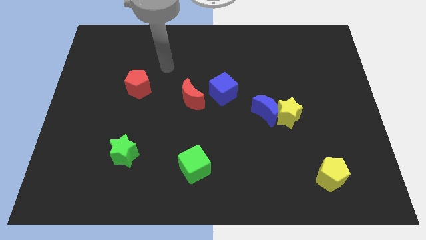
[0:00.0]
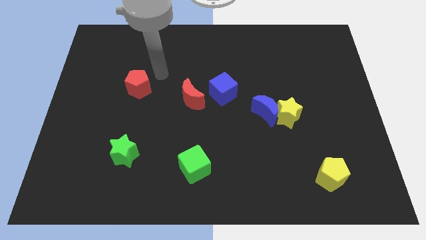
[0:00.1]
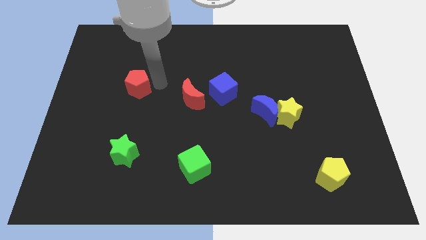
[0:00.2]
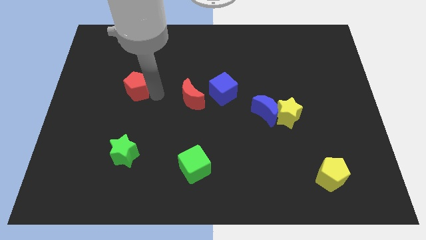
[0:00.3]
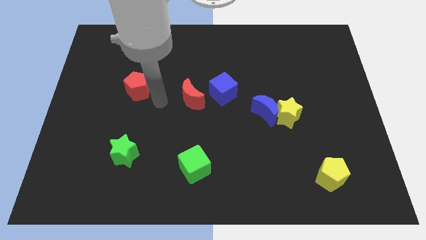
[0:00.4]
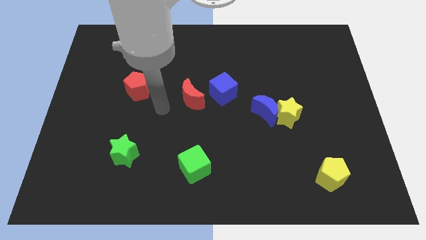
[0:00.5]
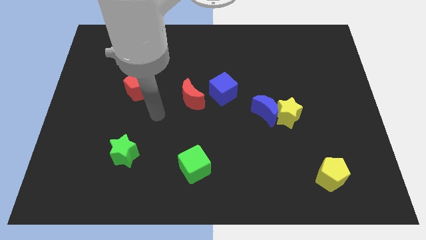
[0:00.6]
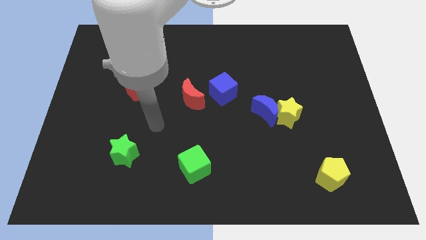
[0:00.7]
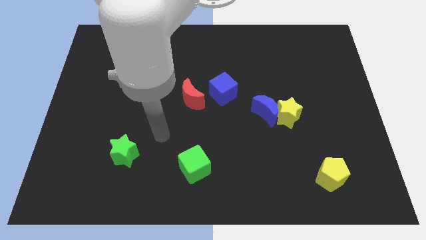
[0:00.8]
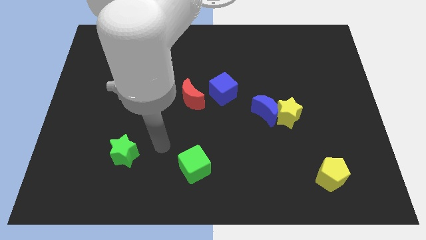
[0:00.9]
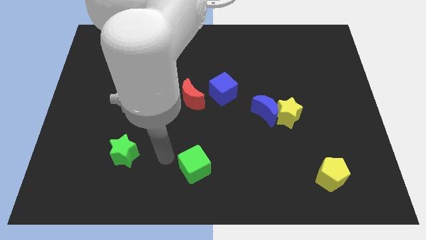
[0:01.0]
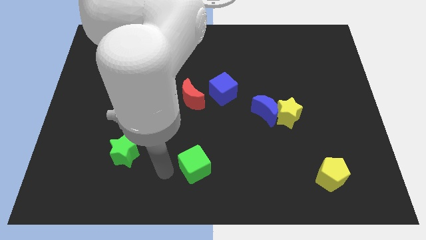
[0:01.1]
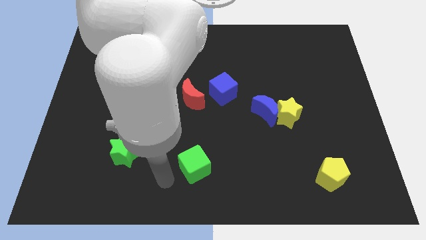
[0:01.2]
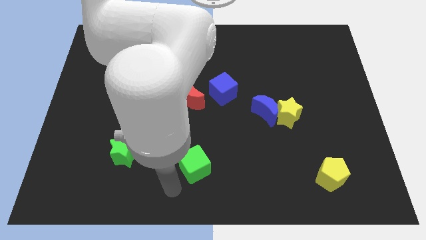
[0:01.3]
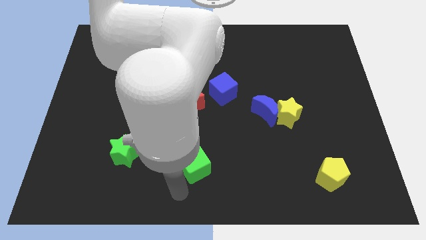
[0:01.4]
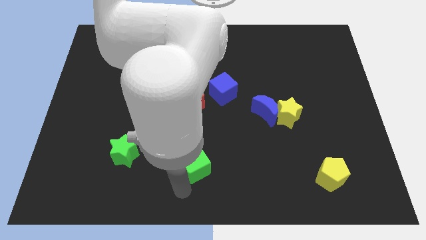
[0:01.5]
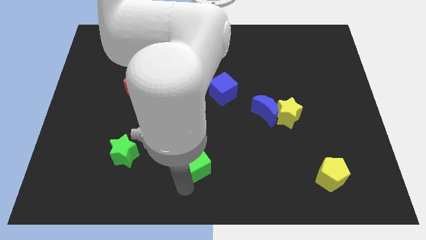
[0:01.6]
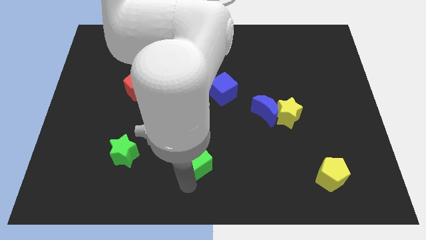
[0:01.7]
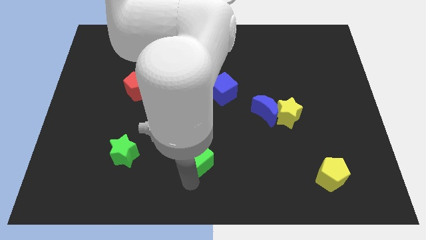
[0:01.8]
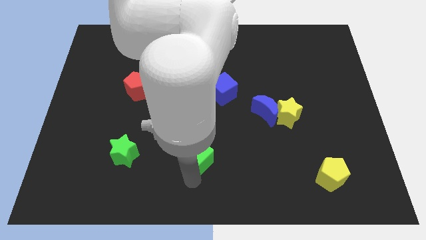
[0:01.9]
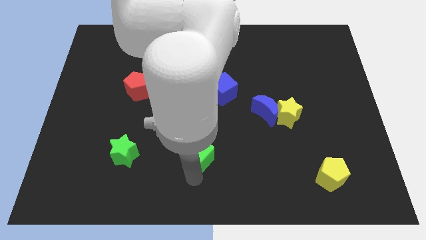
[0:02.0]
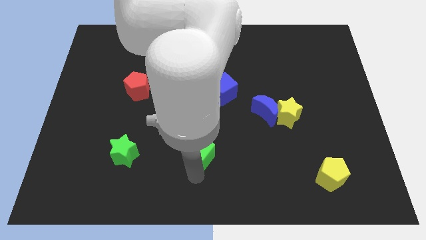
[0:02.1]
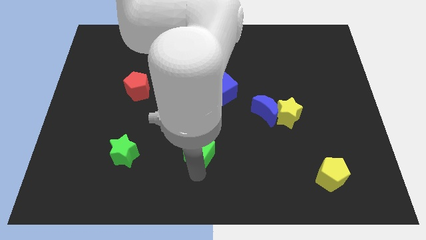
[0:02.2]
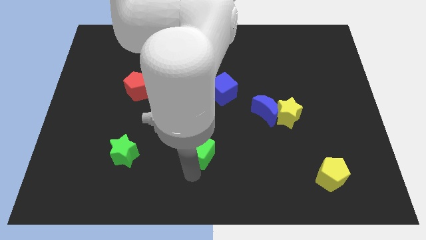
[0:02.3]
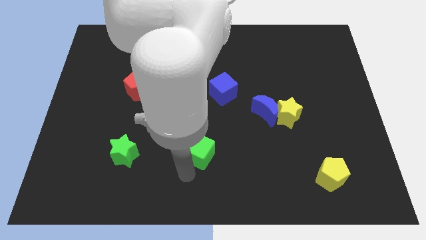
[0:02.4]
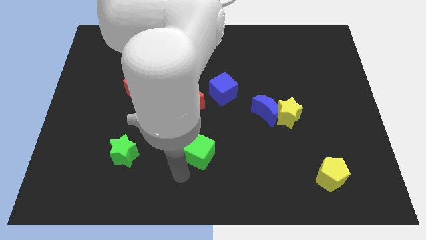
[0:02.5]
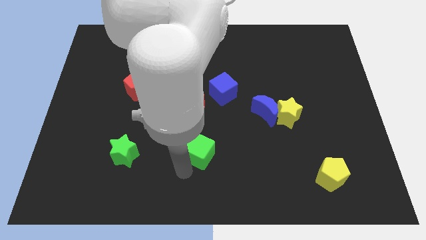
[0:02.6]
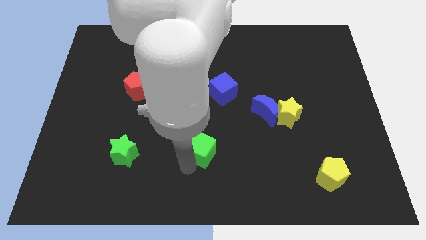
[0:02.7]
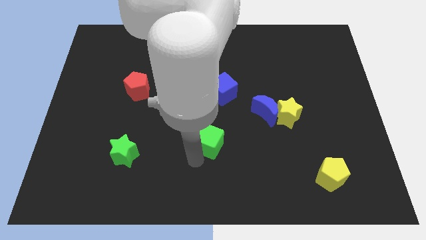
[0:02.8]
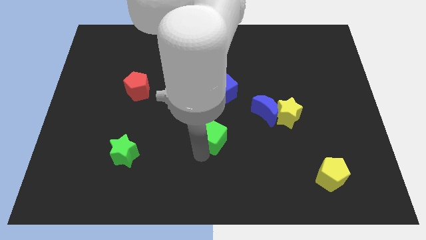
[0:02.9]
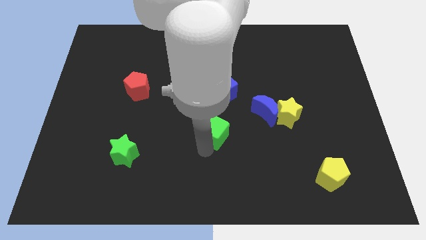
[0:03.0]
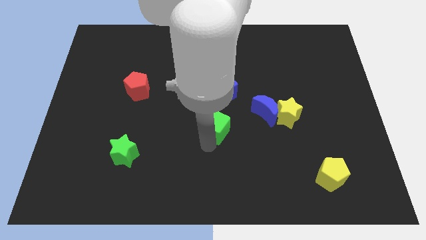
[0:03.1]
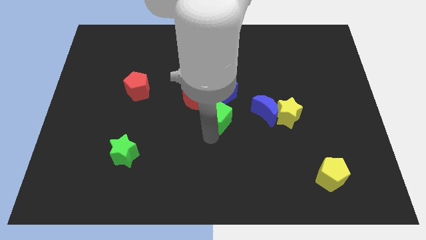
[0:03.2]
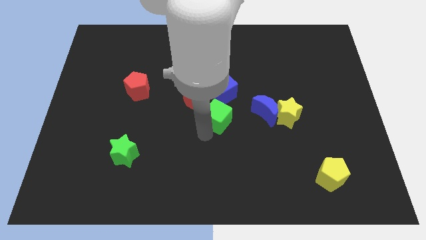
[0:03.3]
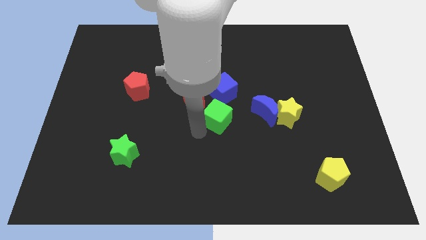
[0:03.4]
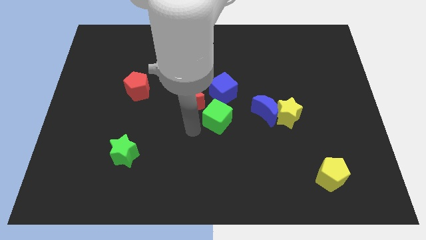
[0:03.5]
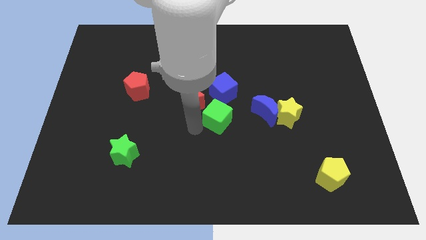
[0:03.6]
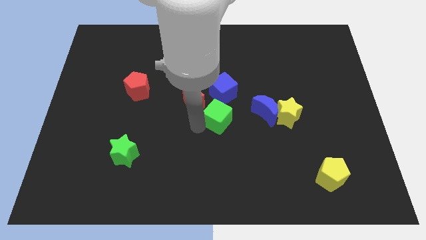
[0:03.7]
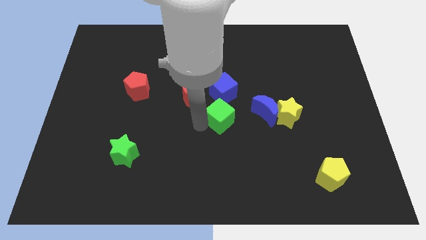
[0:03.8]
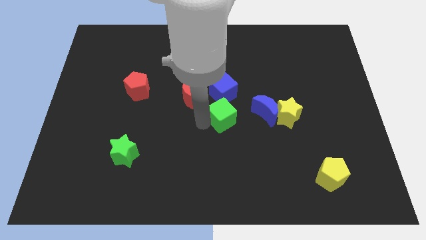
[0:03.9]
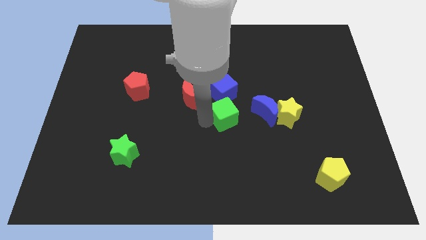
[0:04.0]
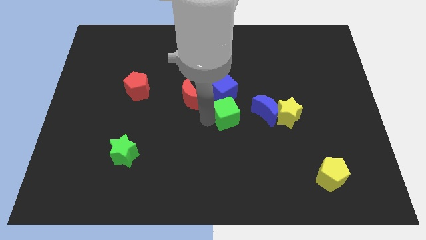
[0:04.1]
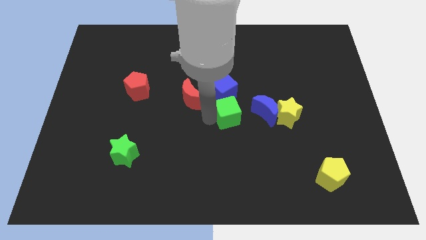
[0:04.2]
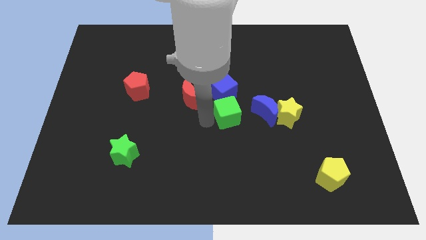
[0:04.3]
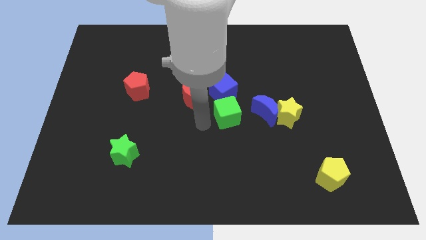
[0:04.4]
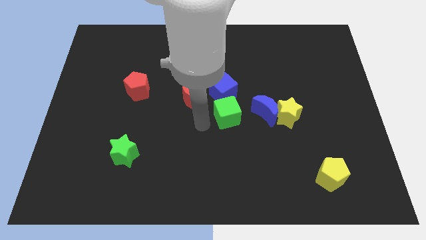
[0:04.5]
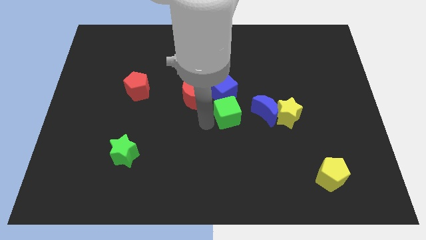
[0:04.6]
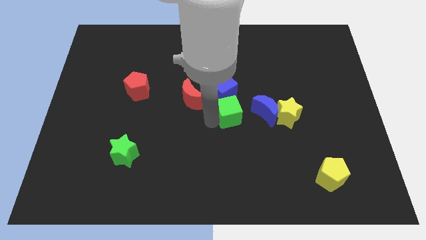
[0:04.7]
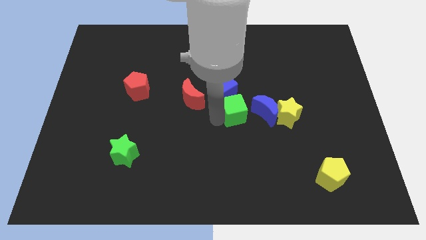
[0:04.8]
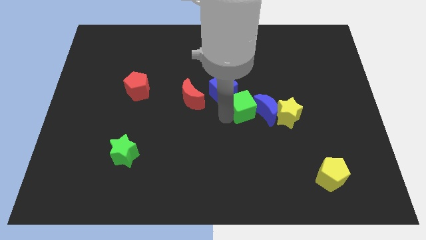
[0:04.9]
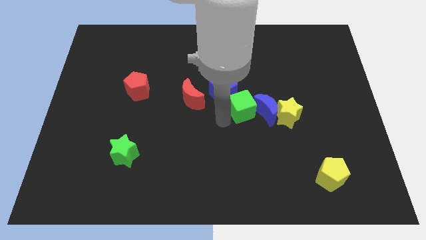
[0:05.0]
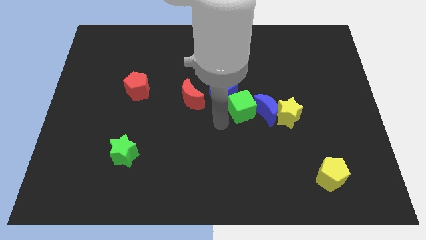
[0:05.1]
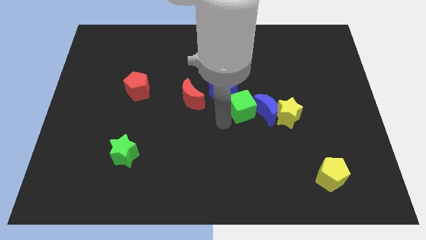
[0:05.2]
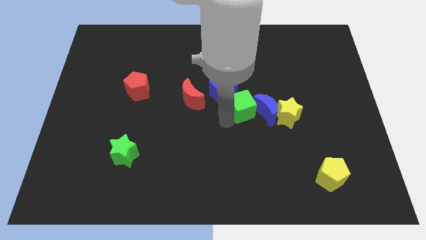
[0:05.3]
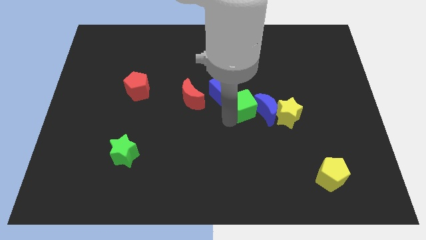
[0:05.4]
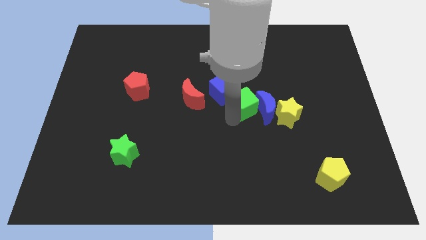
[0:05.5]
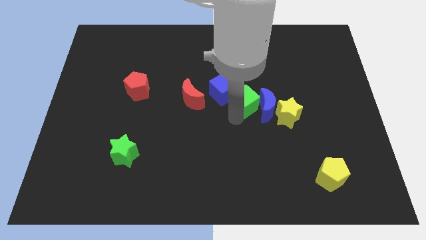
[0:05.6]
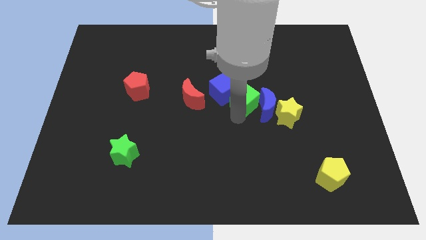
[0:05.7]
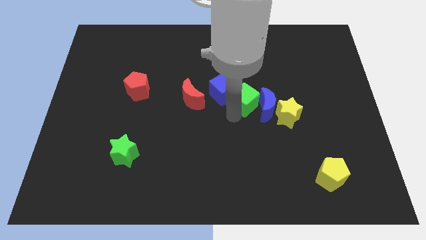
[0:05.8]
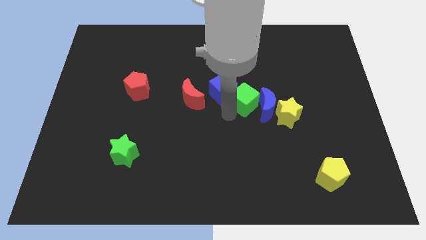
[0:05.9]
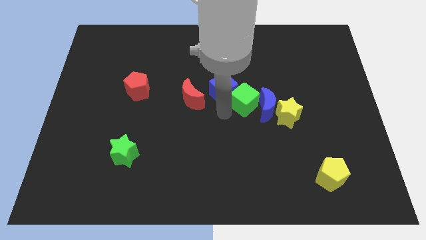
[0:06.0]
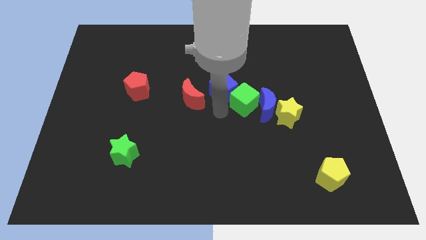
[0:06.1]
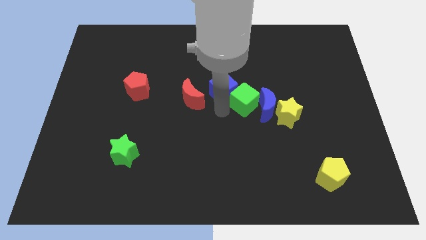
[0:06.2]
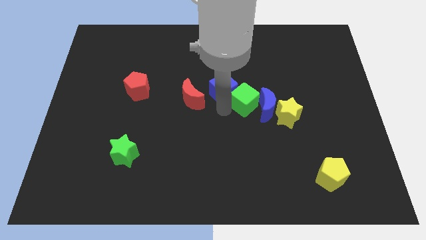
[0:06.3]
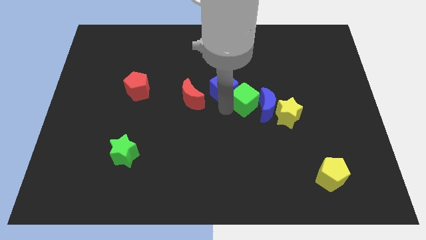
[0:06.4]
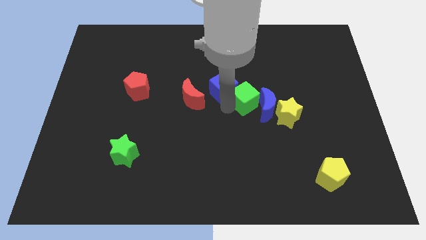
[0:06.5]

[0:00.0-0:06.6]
slide the green cube up and right diagonally

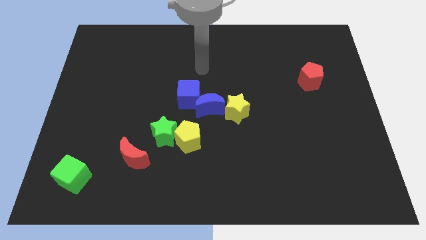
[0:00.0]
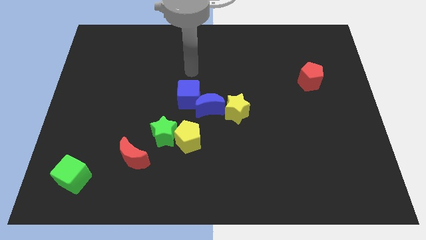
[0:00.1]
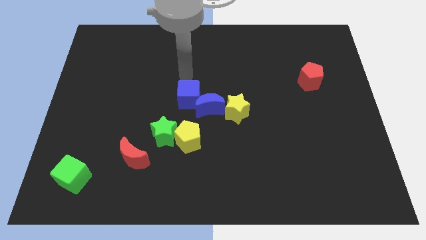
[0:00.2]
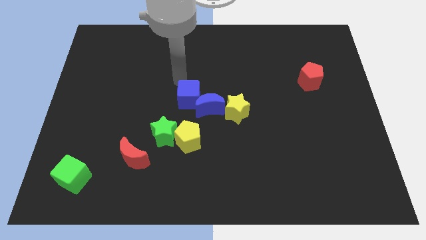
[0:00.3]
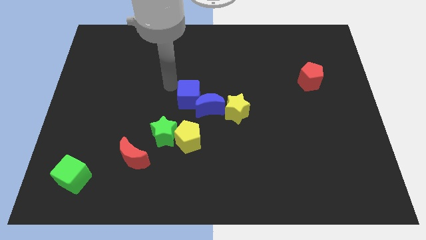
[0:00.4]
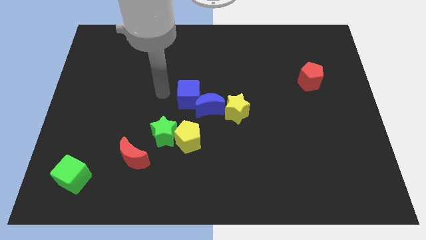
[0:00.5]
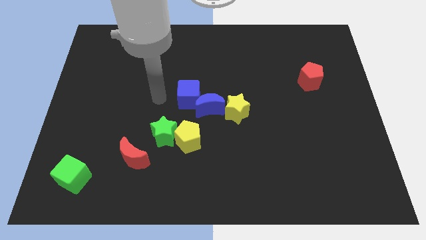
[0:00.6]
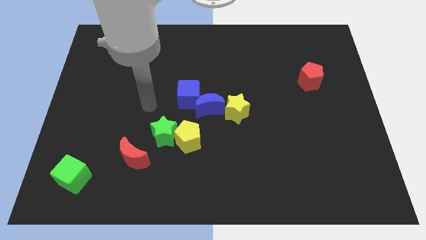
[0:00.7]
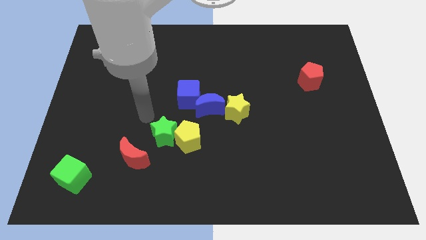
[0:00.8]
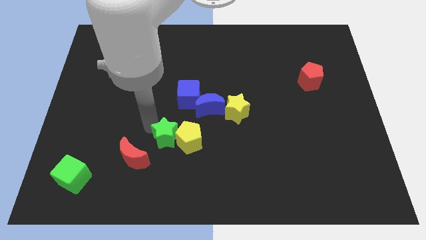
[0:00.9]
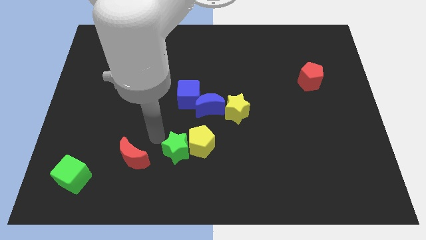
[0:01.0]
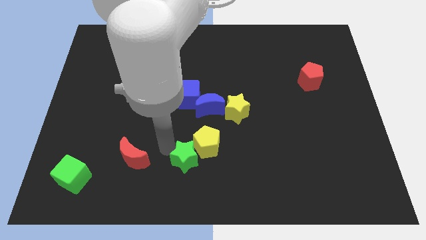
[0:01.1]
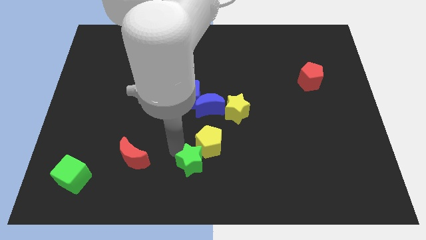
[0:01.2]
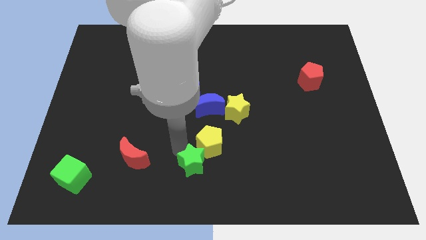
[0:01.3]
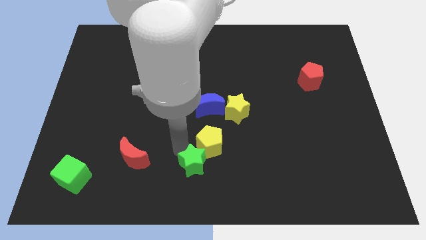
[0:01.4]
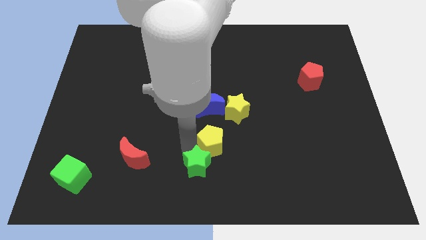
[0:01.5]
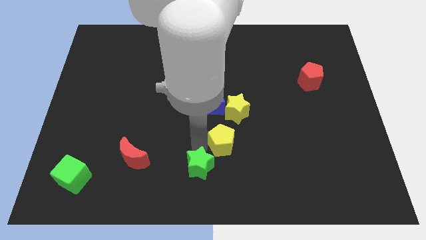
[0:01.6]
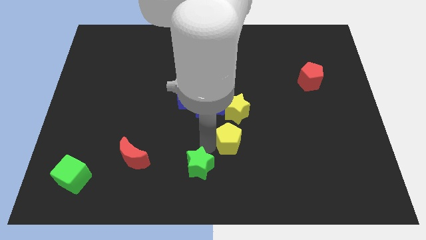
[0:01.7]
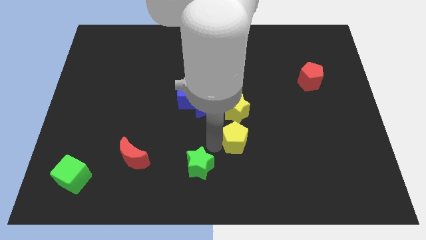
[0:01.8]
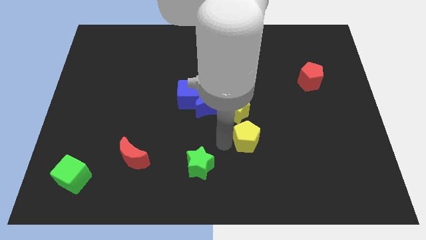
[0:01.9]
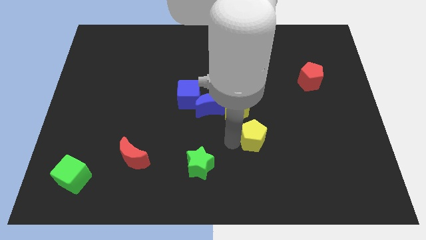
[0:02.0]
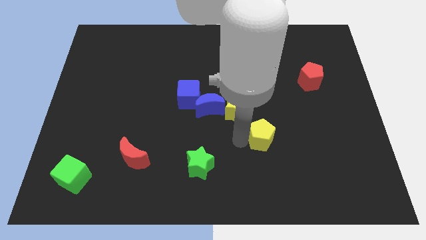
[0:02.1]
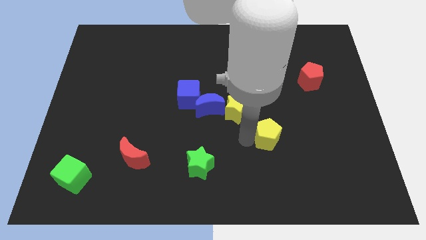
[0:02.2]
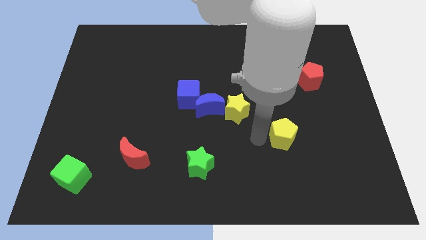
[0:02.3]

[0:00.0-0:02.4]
push the yellow pentagon to the right
